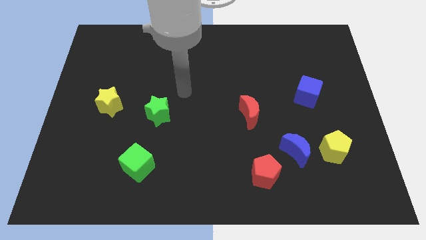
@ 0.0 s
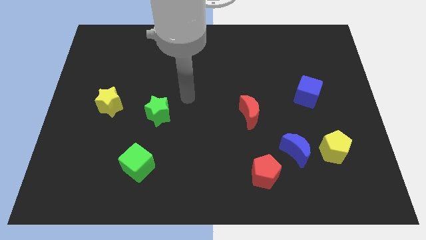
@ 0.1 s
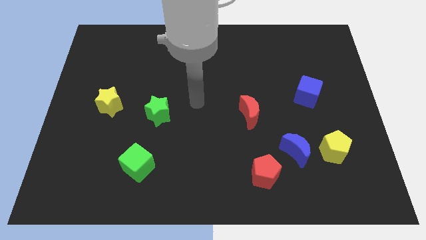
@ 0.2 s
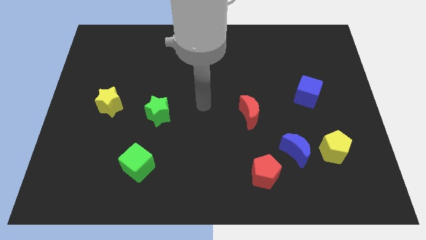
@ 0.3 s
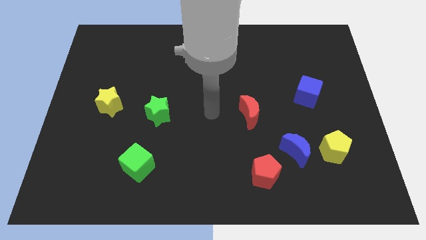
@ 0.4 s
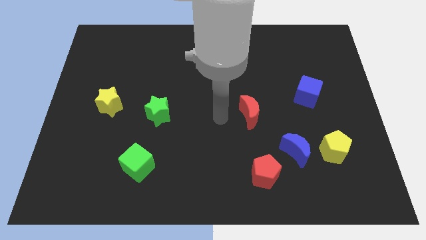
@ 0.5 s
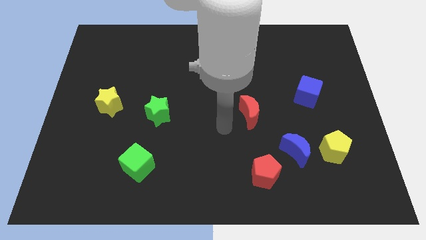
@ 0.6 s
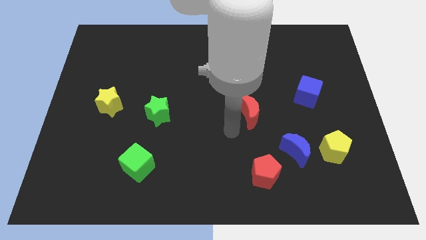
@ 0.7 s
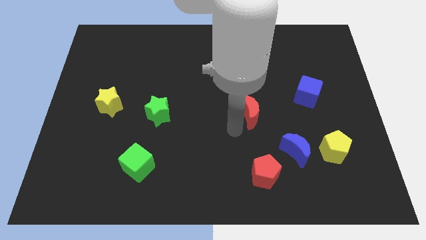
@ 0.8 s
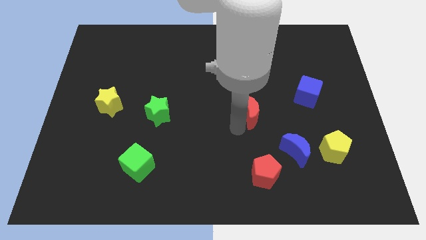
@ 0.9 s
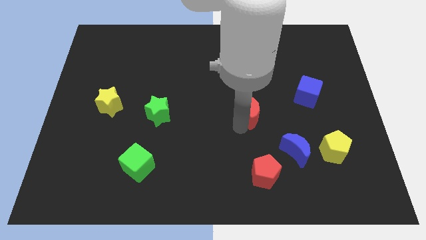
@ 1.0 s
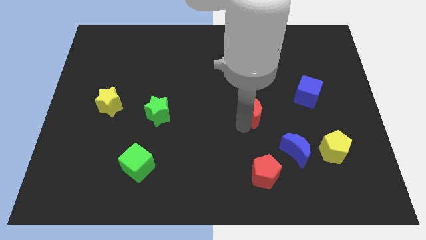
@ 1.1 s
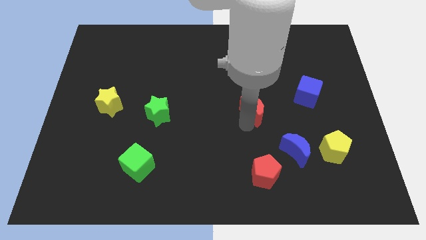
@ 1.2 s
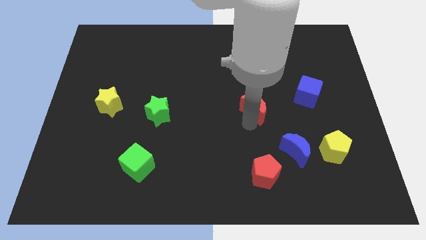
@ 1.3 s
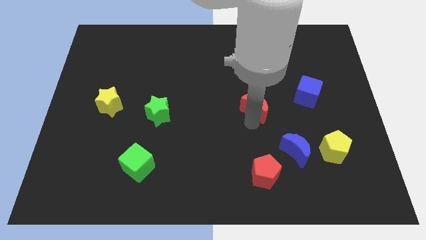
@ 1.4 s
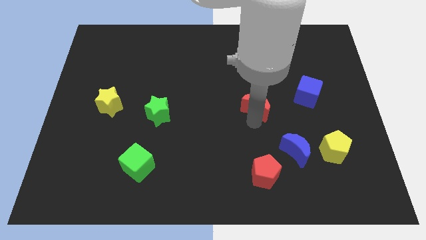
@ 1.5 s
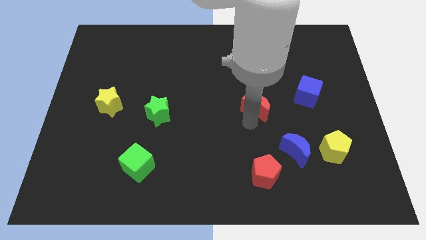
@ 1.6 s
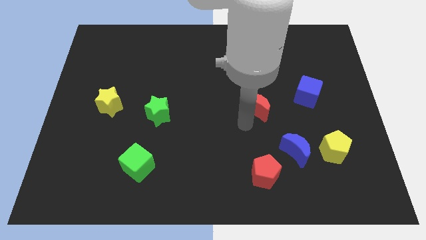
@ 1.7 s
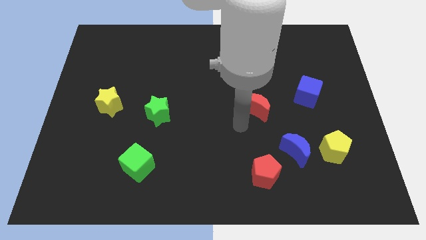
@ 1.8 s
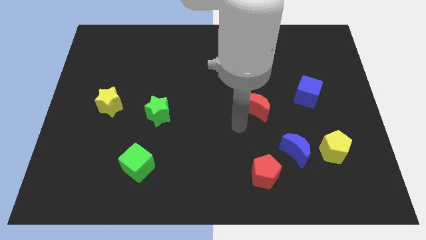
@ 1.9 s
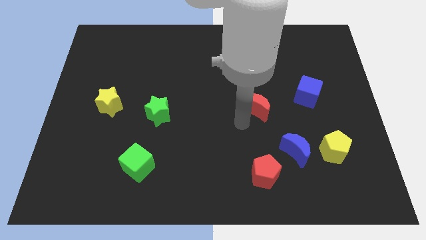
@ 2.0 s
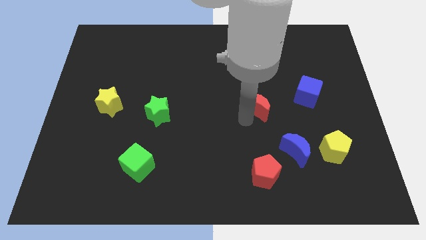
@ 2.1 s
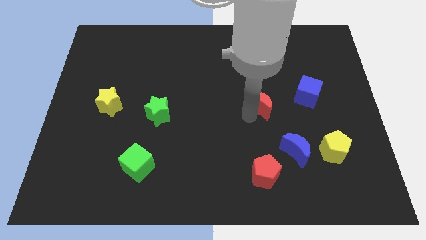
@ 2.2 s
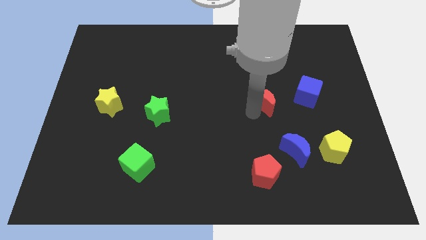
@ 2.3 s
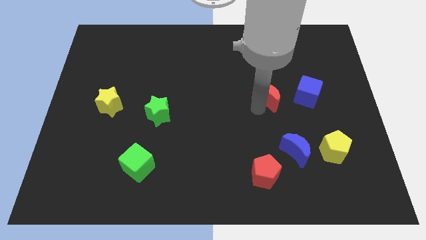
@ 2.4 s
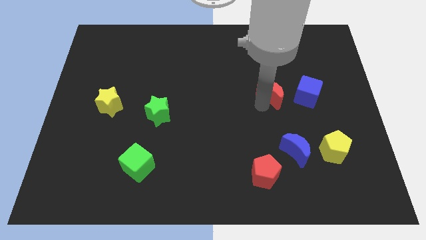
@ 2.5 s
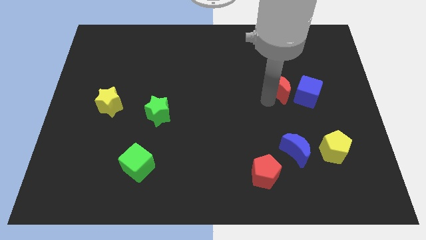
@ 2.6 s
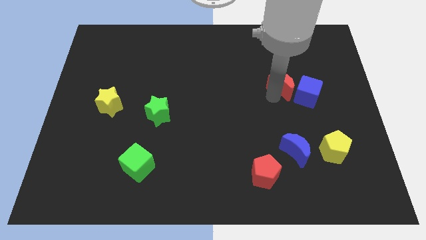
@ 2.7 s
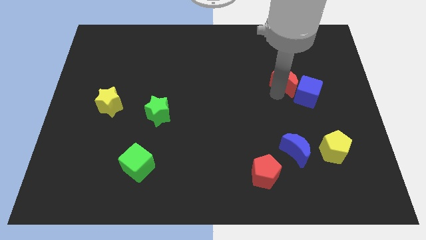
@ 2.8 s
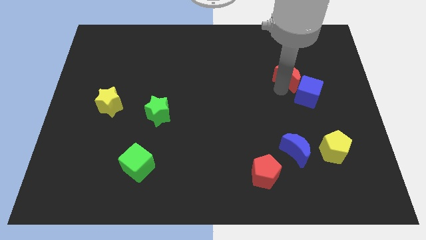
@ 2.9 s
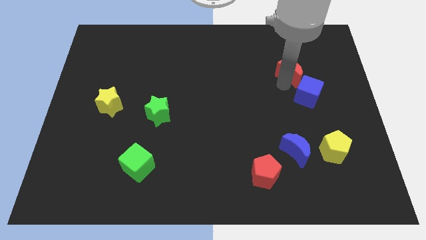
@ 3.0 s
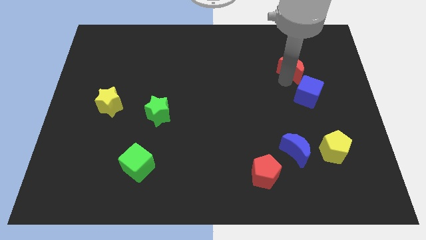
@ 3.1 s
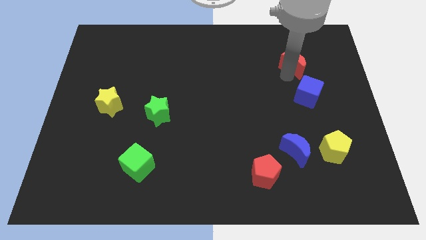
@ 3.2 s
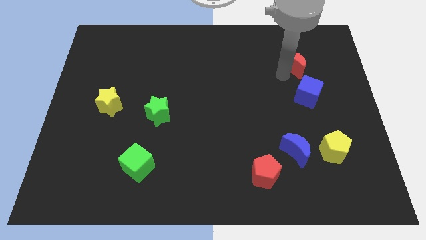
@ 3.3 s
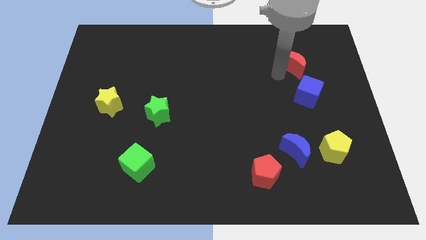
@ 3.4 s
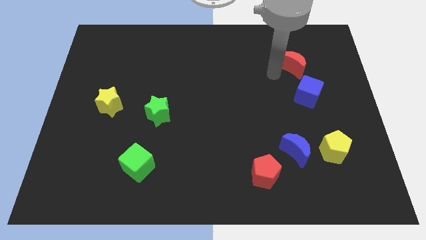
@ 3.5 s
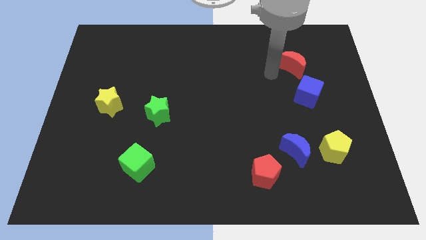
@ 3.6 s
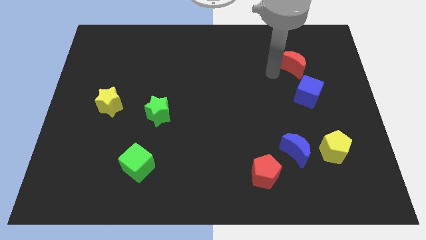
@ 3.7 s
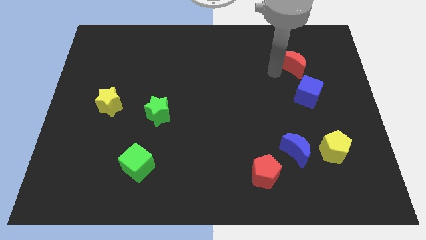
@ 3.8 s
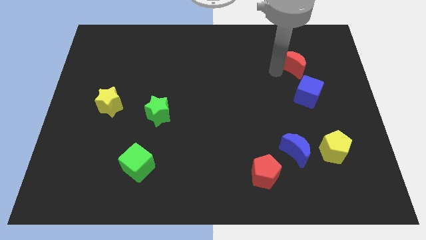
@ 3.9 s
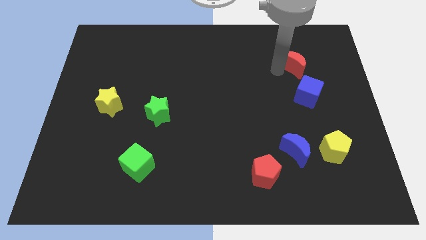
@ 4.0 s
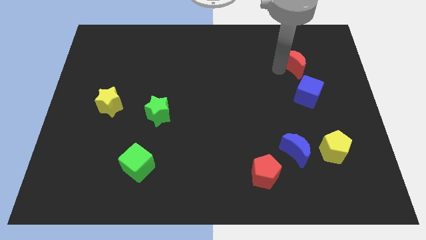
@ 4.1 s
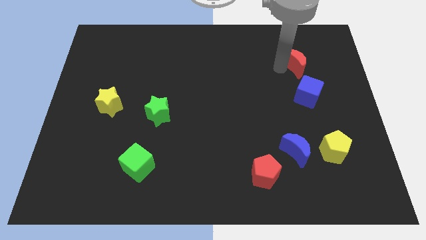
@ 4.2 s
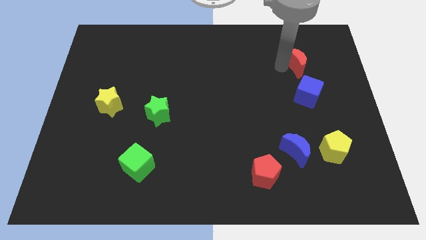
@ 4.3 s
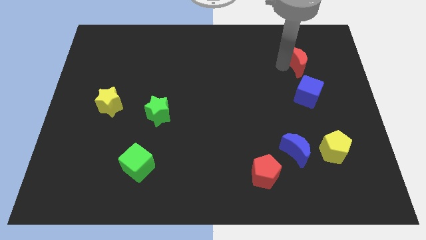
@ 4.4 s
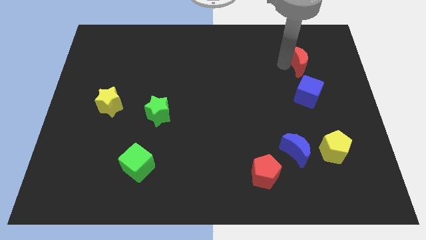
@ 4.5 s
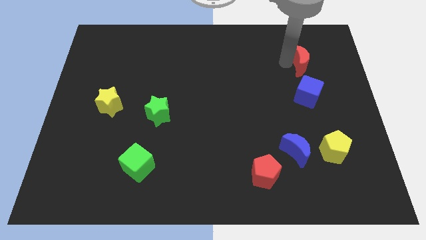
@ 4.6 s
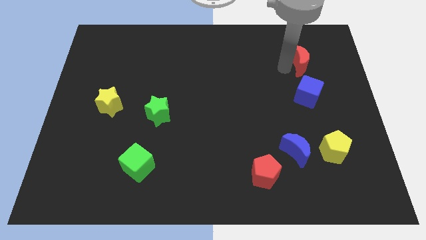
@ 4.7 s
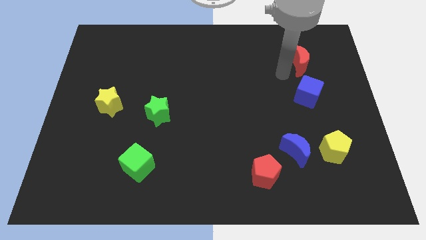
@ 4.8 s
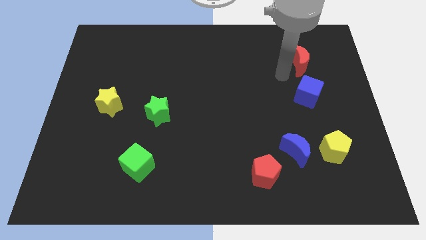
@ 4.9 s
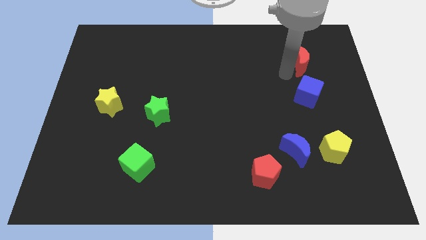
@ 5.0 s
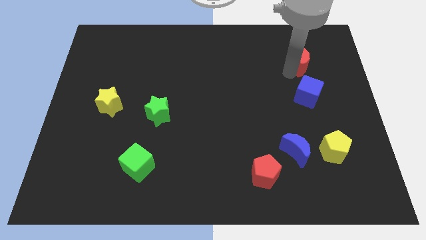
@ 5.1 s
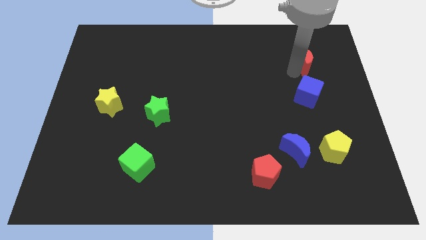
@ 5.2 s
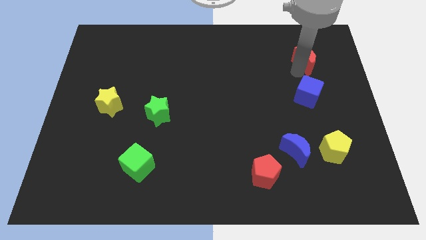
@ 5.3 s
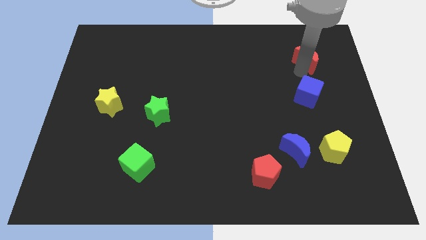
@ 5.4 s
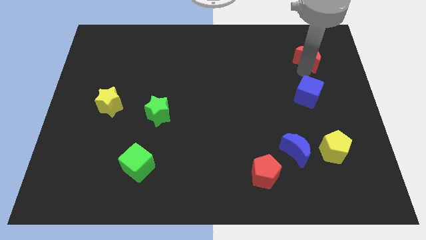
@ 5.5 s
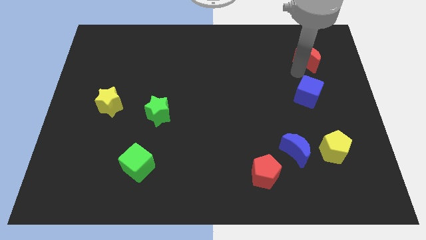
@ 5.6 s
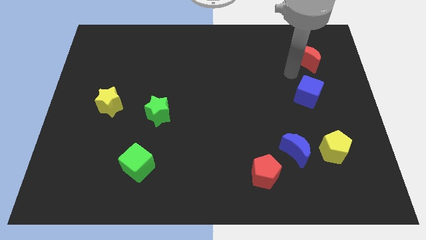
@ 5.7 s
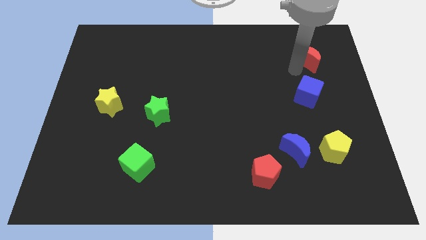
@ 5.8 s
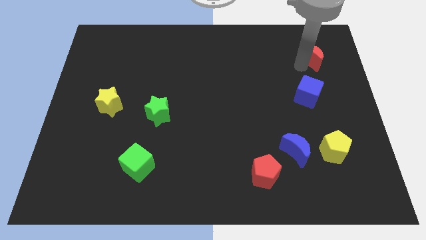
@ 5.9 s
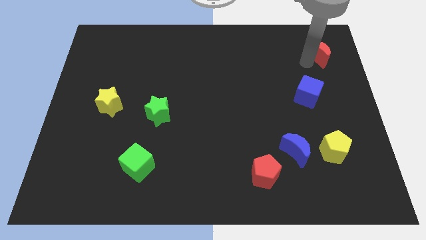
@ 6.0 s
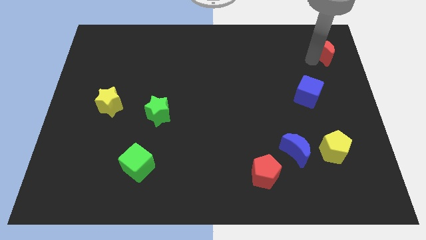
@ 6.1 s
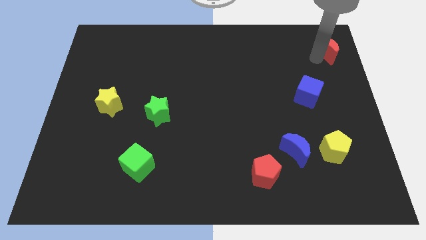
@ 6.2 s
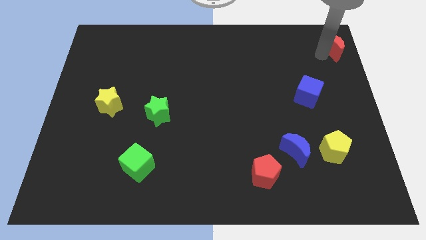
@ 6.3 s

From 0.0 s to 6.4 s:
put the red moon to the upper right corner
